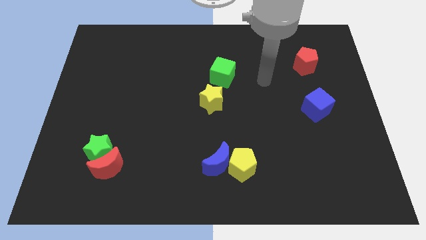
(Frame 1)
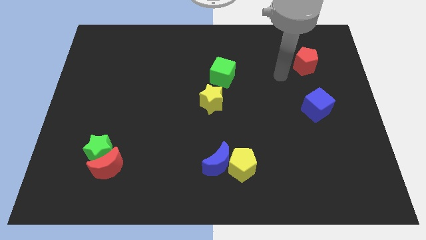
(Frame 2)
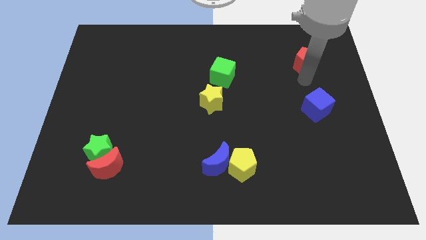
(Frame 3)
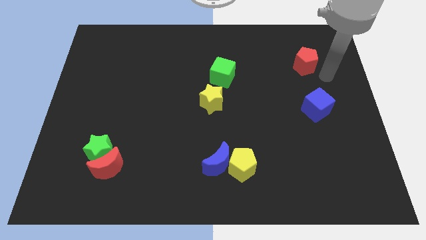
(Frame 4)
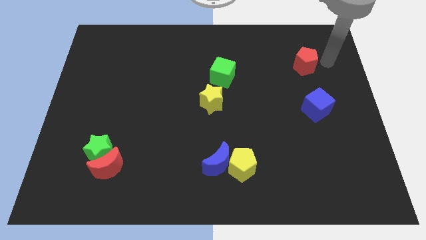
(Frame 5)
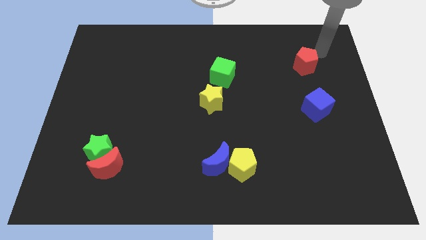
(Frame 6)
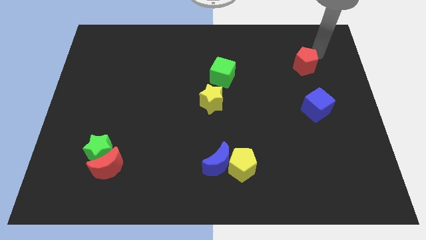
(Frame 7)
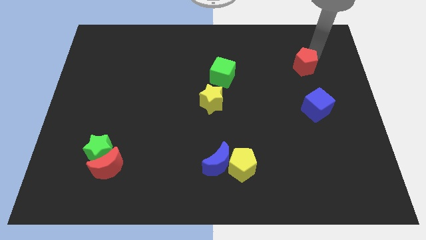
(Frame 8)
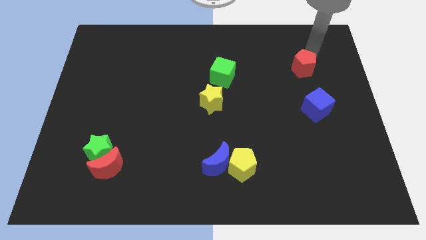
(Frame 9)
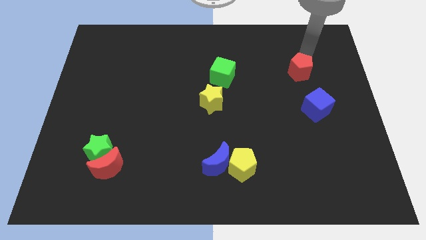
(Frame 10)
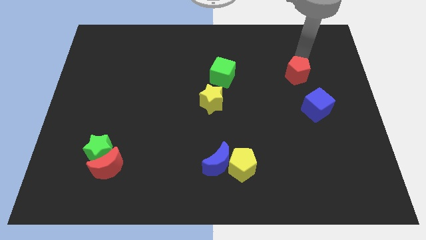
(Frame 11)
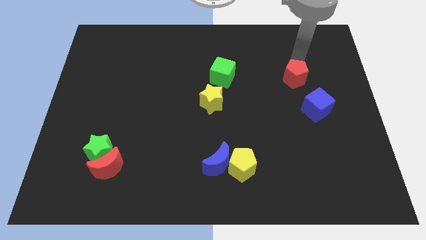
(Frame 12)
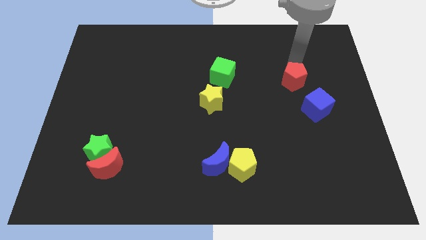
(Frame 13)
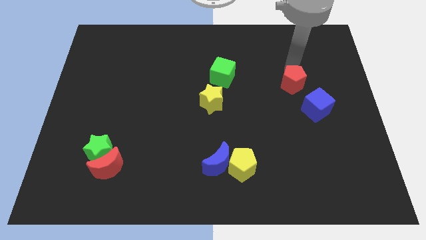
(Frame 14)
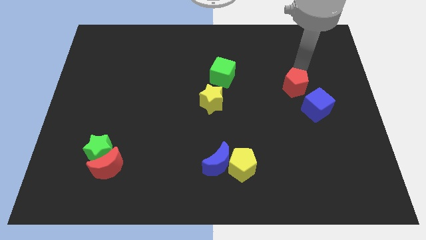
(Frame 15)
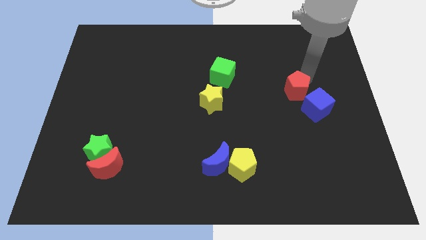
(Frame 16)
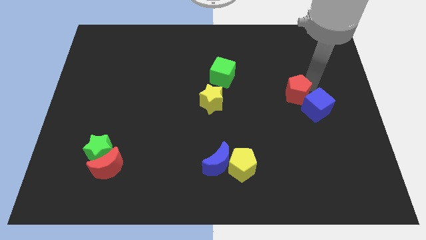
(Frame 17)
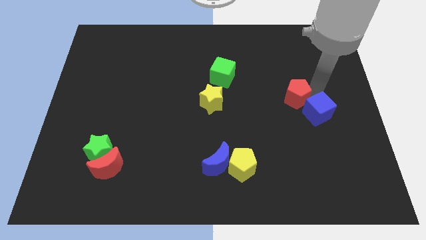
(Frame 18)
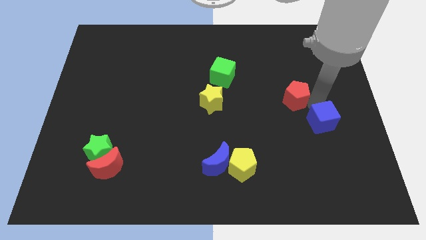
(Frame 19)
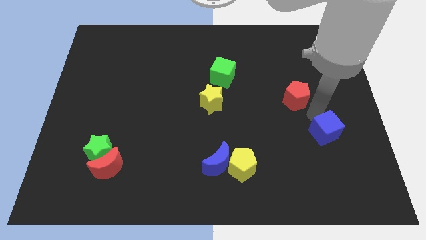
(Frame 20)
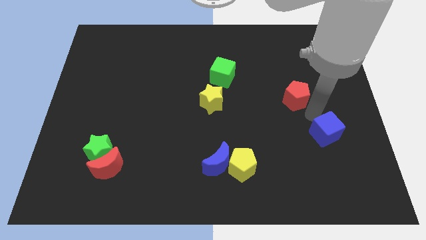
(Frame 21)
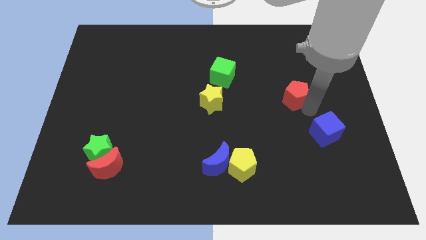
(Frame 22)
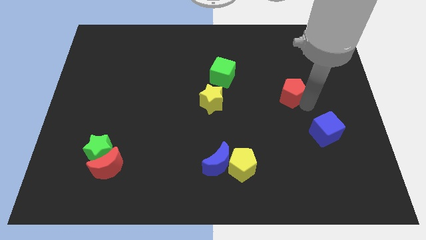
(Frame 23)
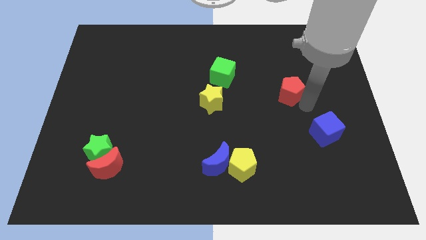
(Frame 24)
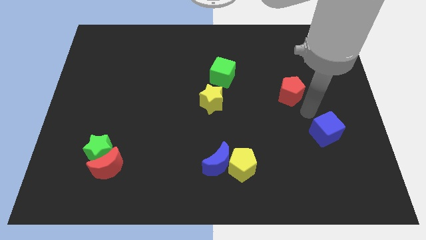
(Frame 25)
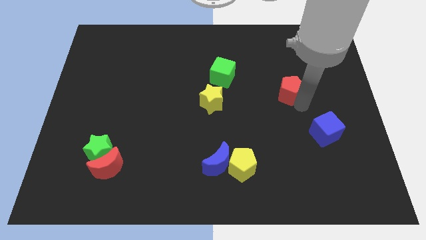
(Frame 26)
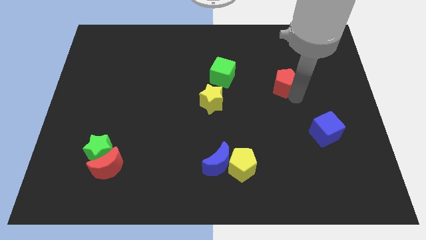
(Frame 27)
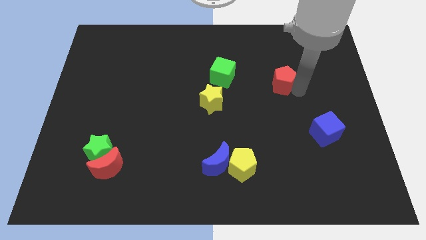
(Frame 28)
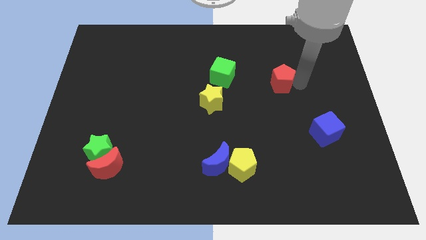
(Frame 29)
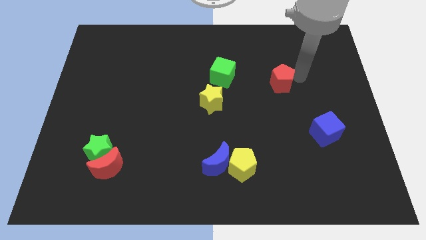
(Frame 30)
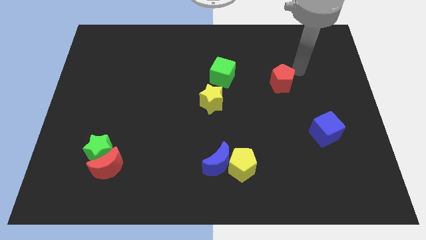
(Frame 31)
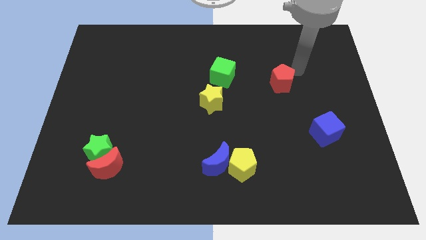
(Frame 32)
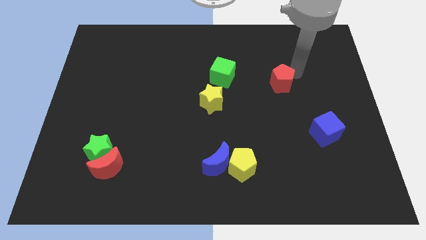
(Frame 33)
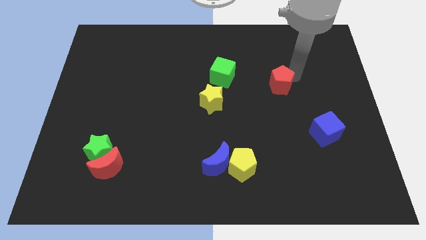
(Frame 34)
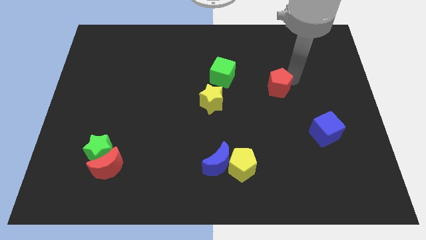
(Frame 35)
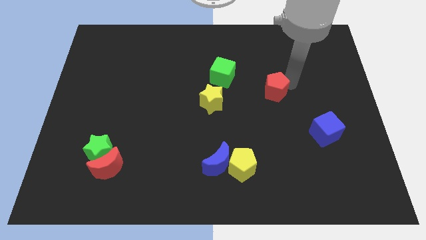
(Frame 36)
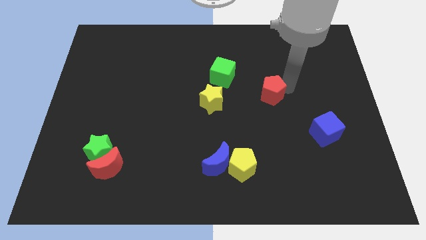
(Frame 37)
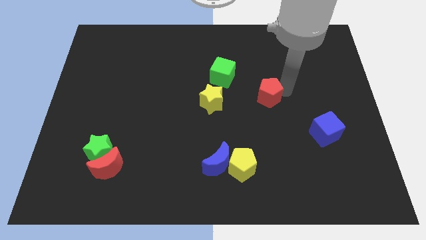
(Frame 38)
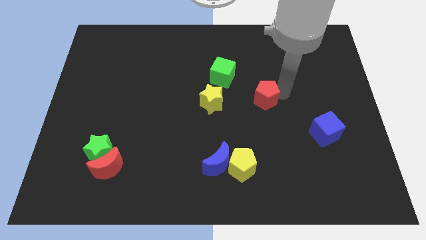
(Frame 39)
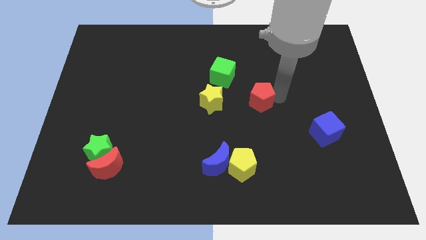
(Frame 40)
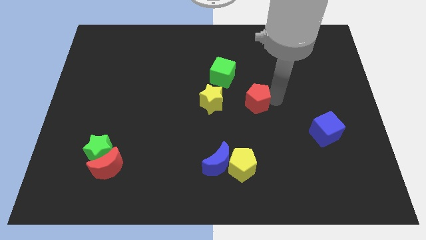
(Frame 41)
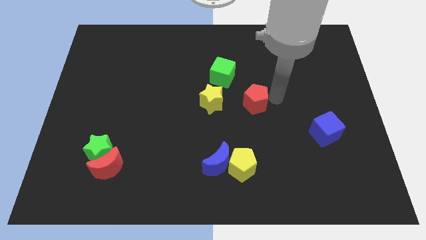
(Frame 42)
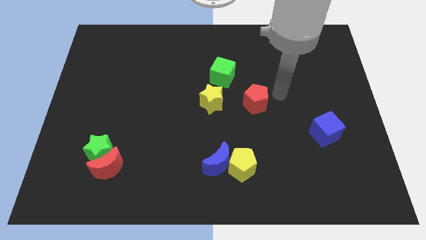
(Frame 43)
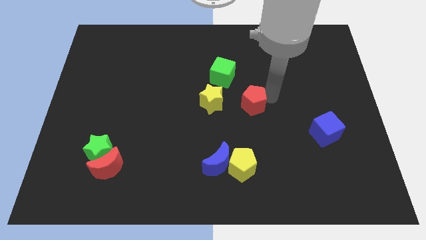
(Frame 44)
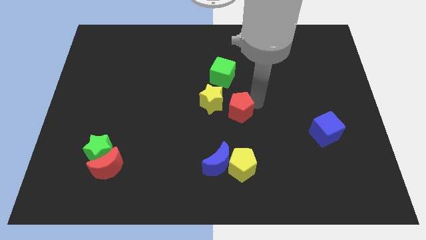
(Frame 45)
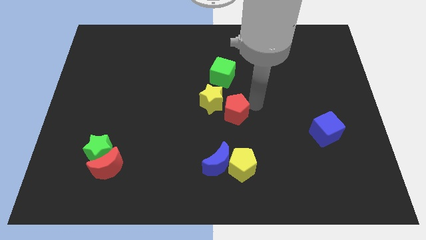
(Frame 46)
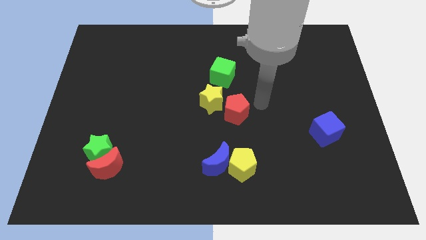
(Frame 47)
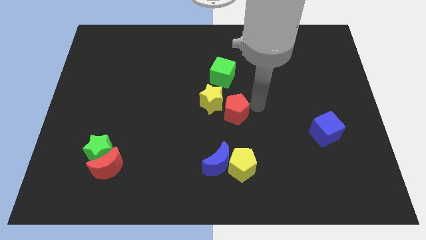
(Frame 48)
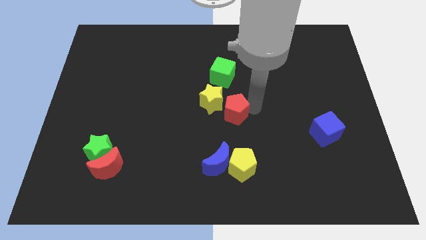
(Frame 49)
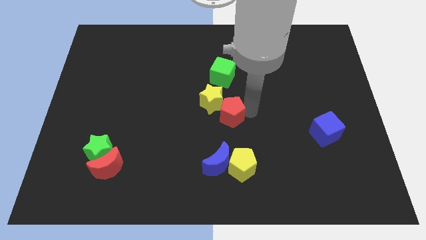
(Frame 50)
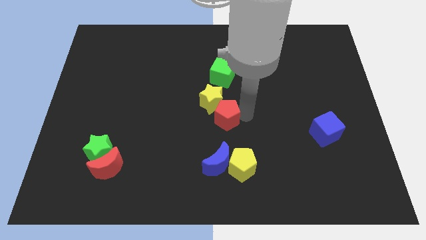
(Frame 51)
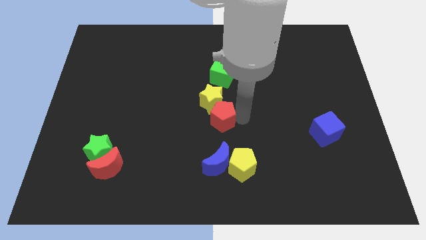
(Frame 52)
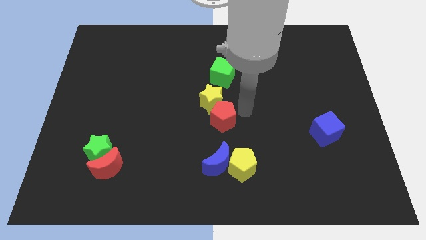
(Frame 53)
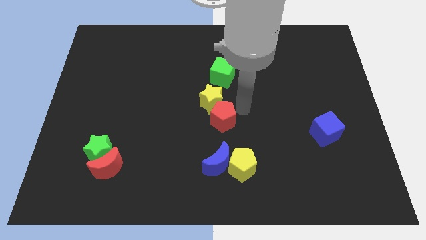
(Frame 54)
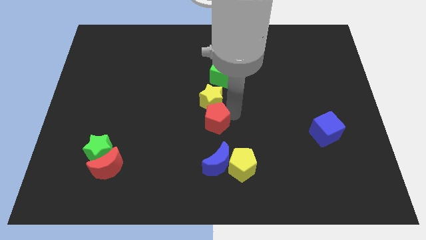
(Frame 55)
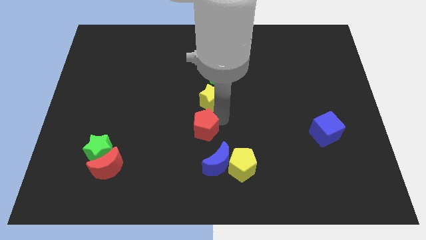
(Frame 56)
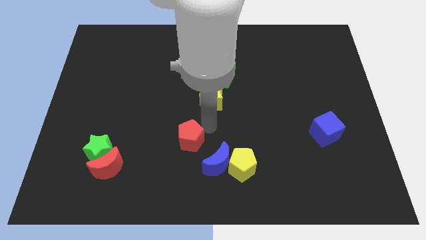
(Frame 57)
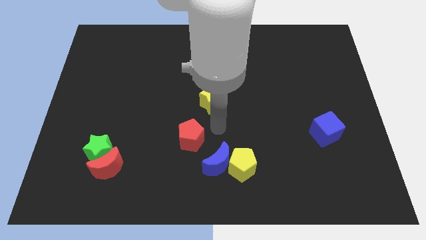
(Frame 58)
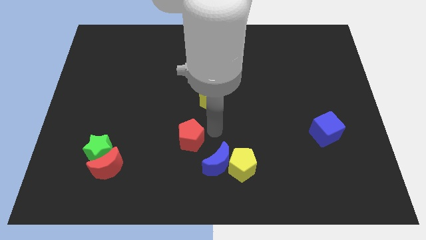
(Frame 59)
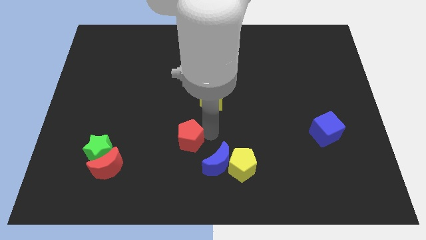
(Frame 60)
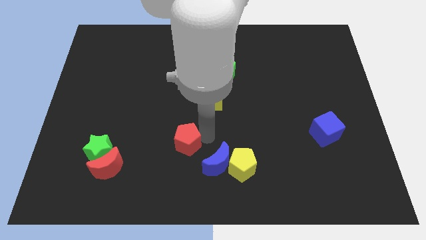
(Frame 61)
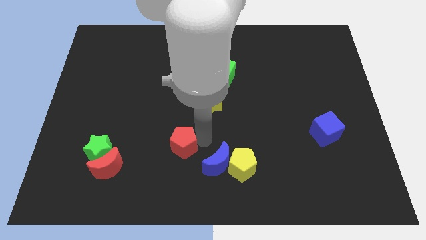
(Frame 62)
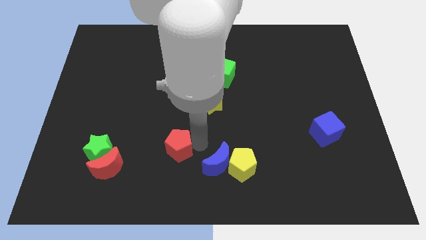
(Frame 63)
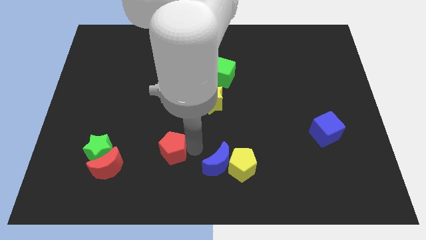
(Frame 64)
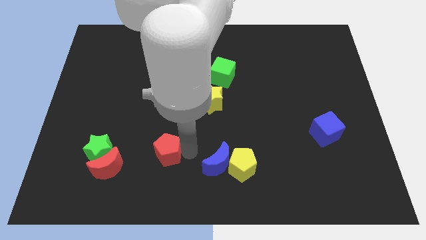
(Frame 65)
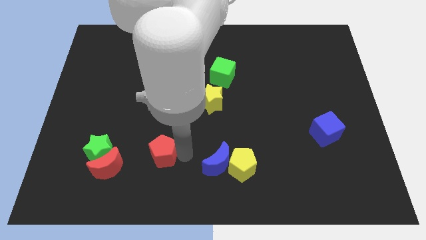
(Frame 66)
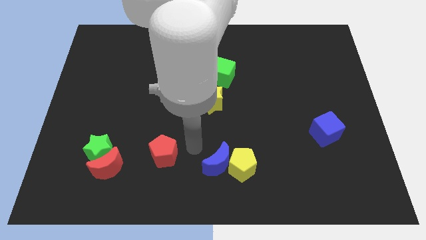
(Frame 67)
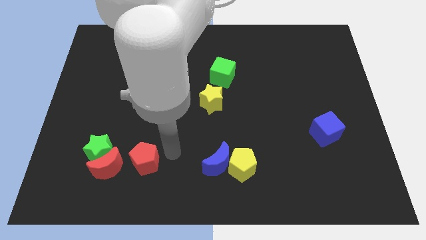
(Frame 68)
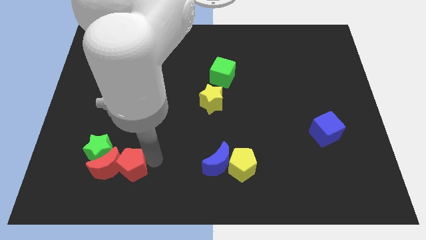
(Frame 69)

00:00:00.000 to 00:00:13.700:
move the red pentagon next to the red moon

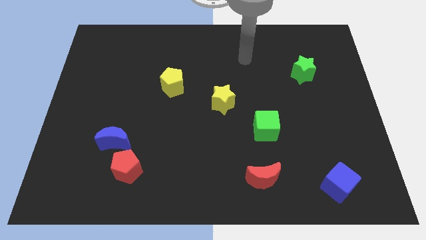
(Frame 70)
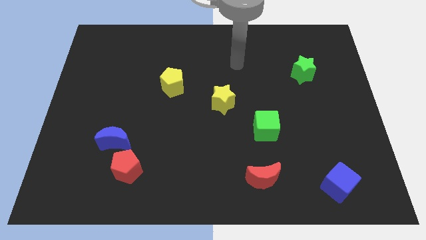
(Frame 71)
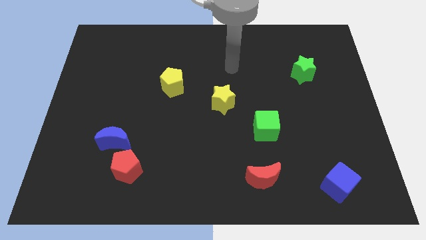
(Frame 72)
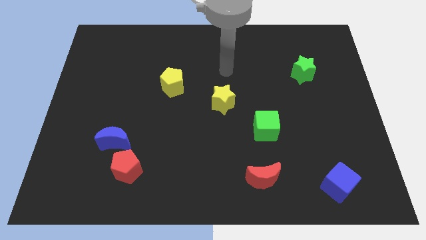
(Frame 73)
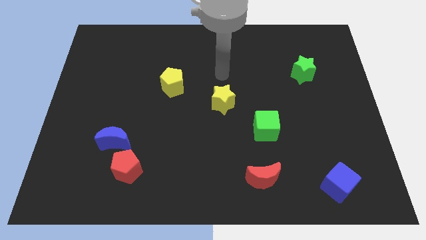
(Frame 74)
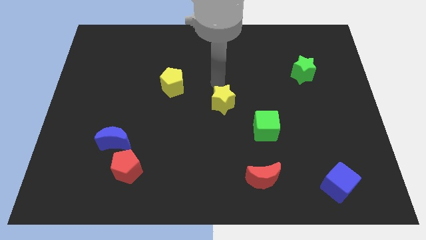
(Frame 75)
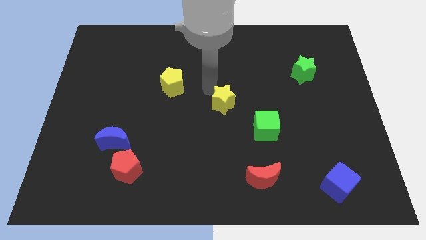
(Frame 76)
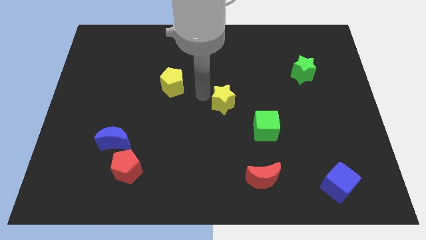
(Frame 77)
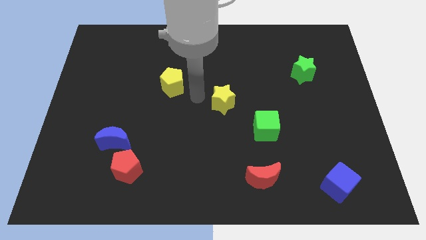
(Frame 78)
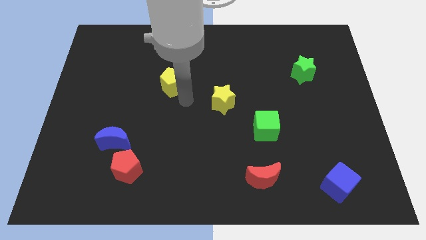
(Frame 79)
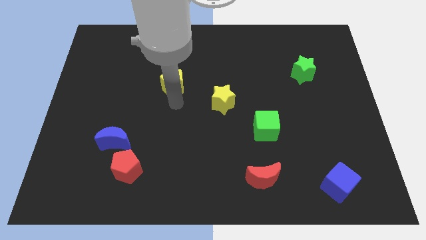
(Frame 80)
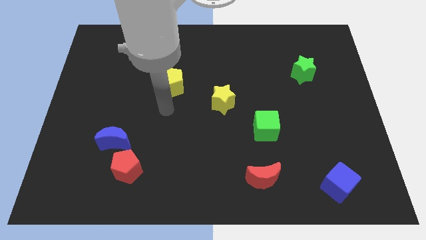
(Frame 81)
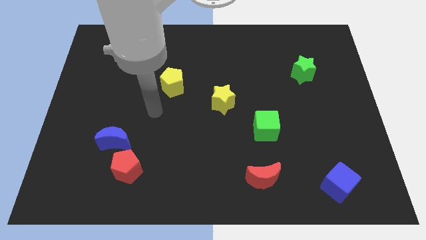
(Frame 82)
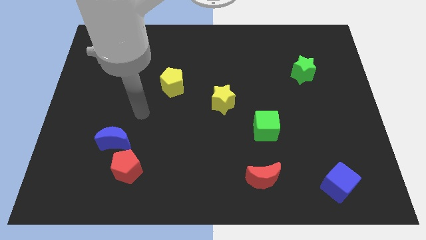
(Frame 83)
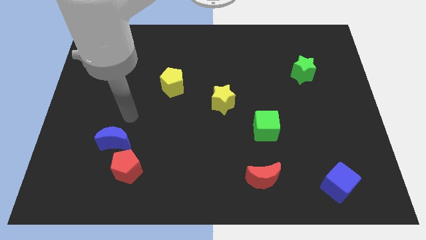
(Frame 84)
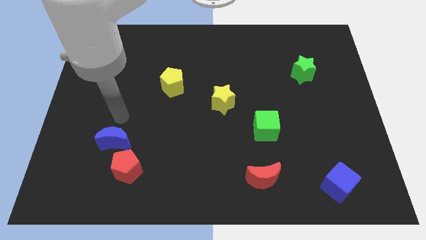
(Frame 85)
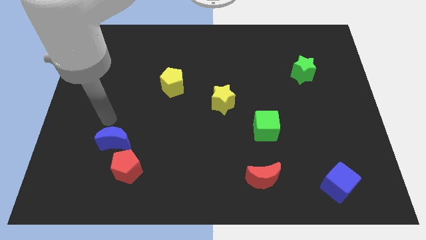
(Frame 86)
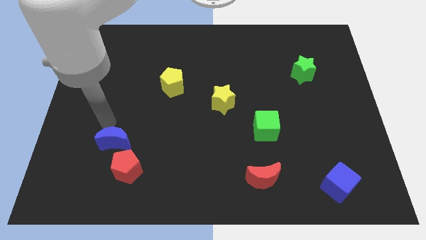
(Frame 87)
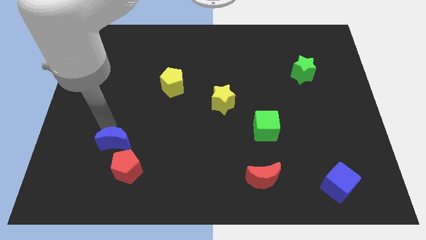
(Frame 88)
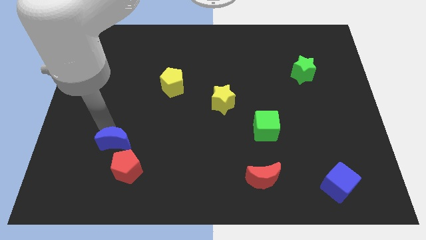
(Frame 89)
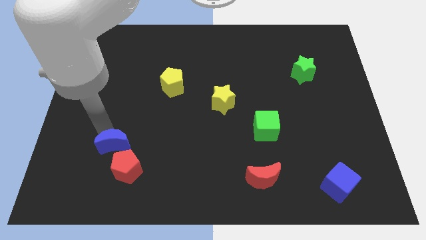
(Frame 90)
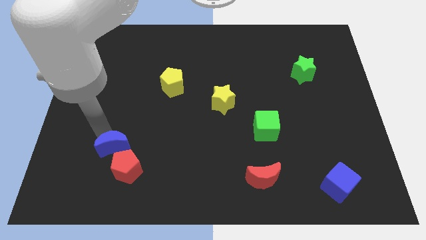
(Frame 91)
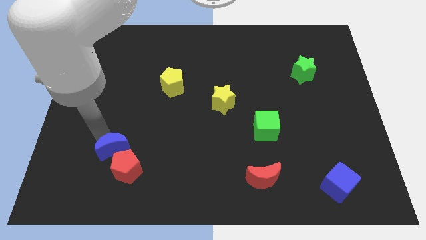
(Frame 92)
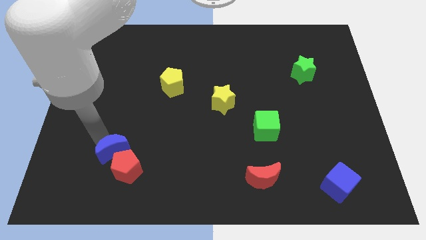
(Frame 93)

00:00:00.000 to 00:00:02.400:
move the blue moon to the red pentagon
